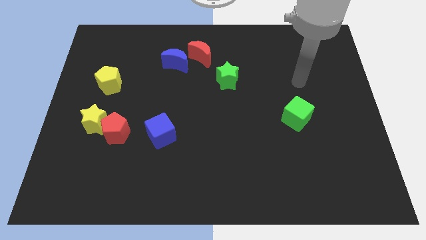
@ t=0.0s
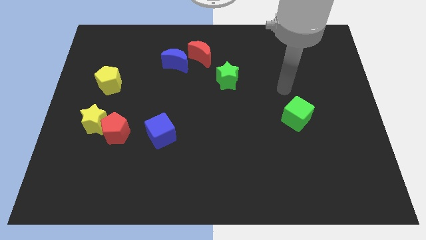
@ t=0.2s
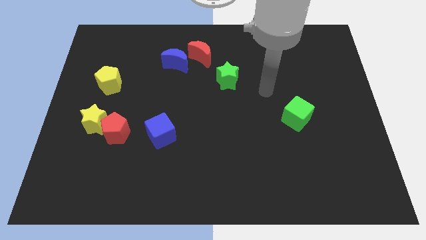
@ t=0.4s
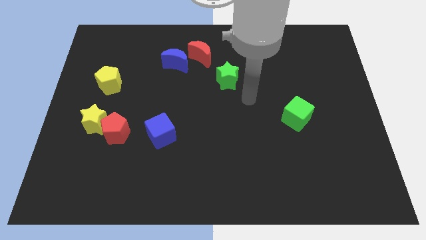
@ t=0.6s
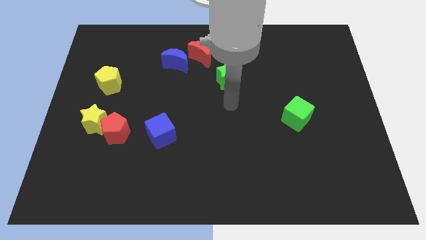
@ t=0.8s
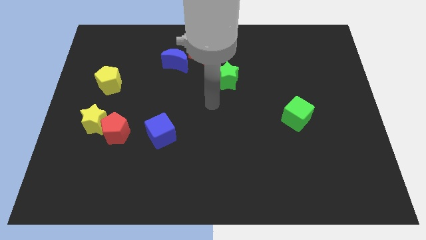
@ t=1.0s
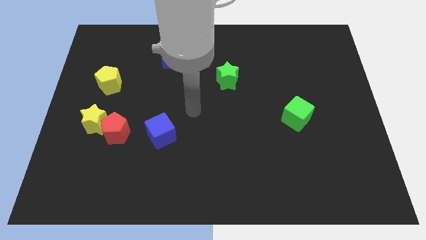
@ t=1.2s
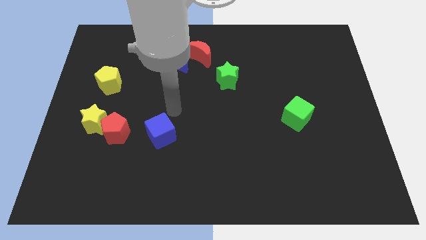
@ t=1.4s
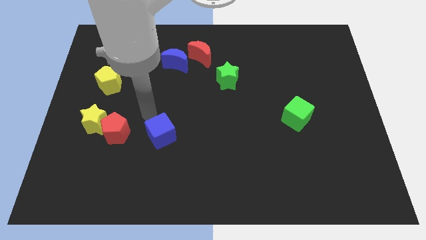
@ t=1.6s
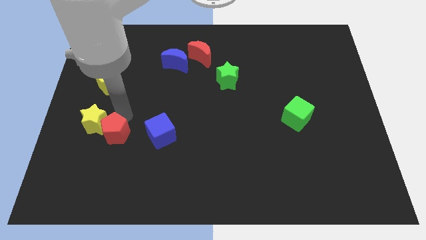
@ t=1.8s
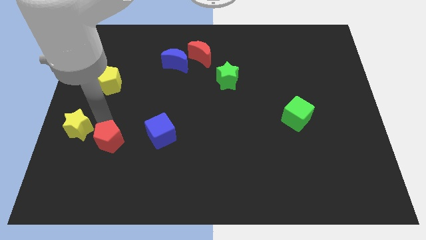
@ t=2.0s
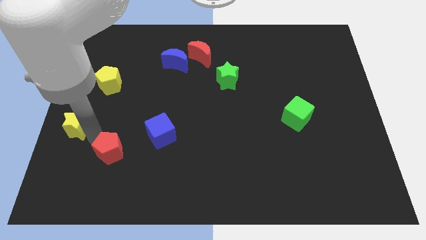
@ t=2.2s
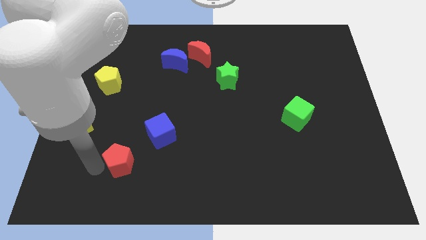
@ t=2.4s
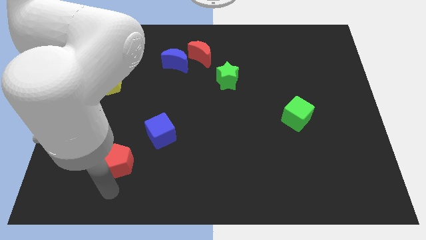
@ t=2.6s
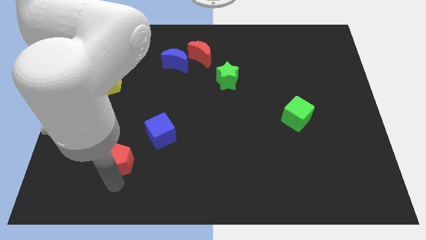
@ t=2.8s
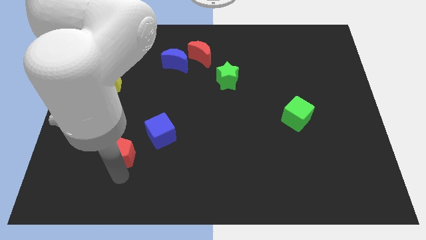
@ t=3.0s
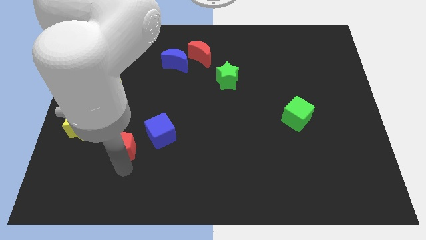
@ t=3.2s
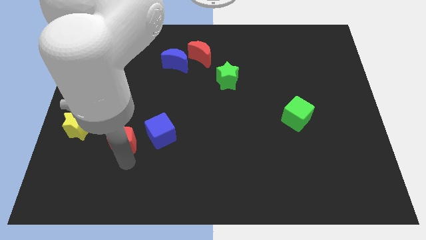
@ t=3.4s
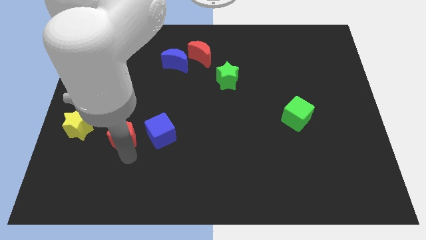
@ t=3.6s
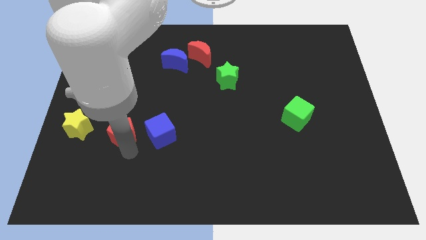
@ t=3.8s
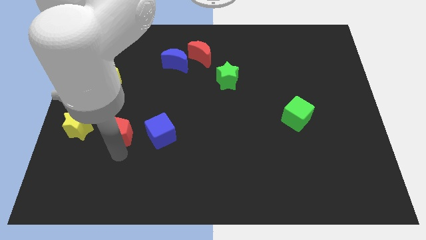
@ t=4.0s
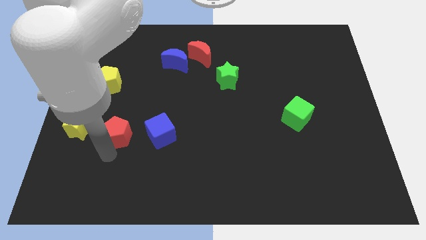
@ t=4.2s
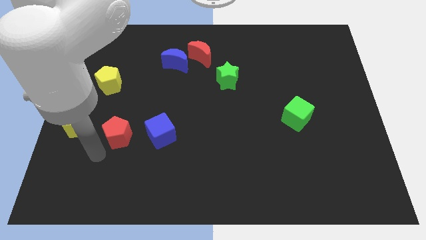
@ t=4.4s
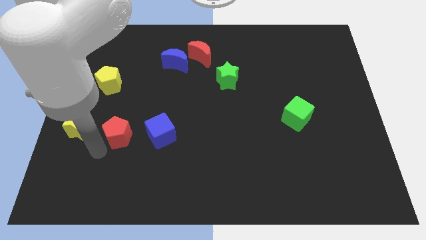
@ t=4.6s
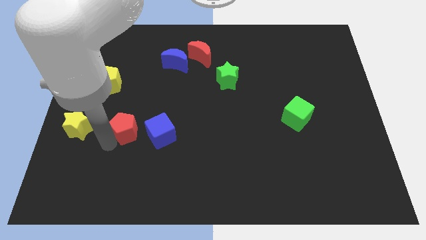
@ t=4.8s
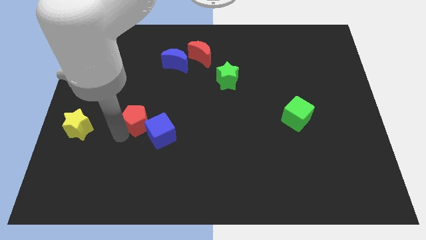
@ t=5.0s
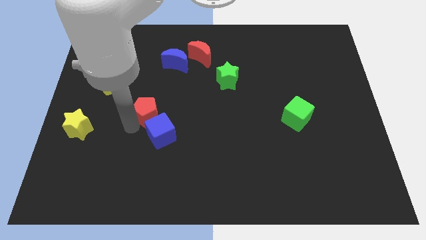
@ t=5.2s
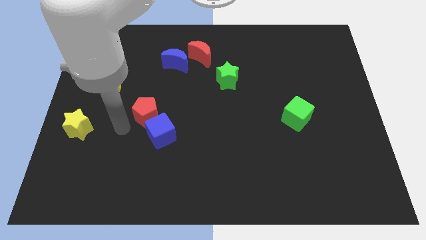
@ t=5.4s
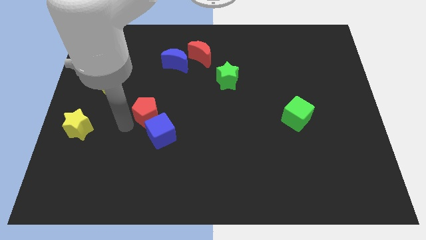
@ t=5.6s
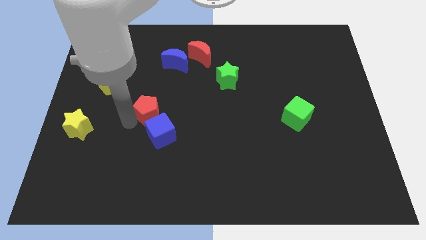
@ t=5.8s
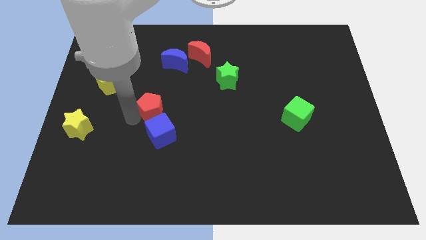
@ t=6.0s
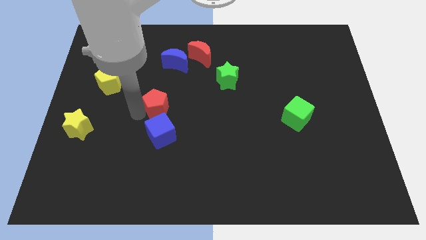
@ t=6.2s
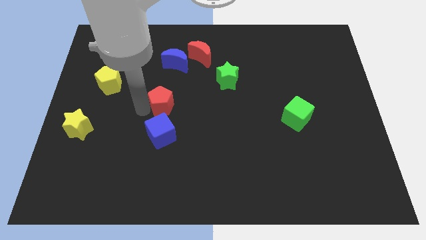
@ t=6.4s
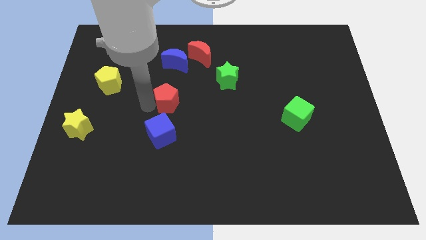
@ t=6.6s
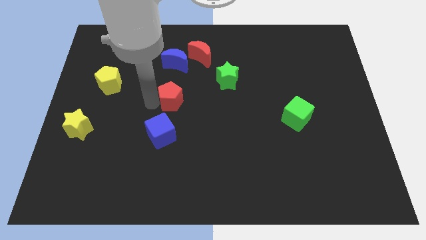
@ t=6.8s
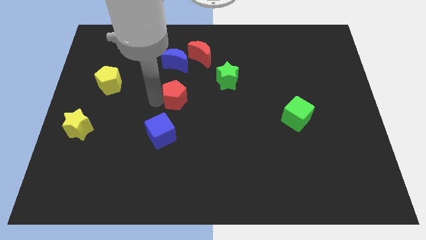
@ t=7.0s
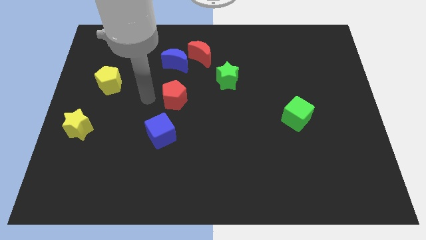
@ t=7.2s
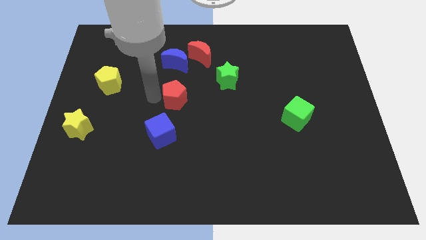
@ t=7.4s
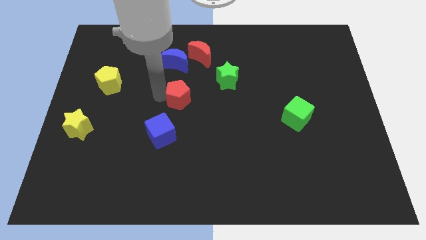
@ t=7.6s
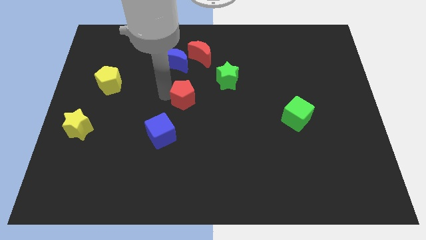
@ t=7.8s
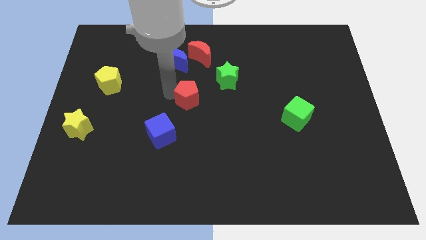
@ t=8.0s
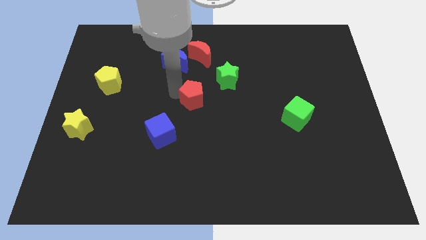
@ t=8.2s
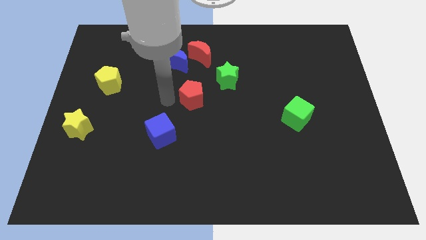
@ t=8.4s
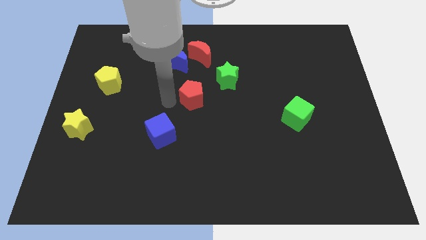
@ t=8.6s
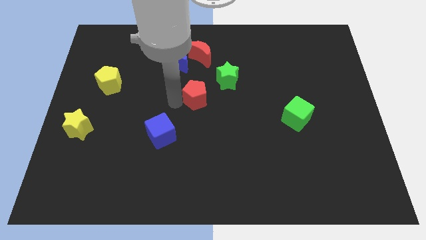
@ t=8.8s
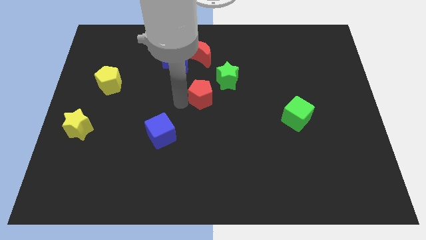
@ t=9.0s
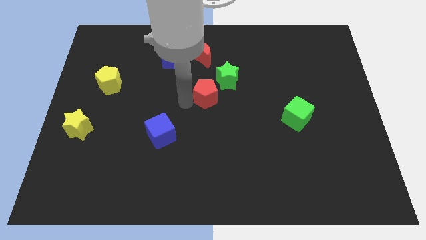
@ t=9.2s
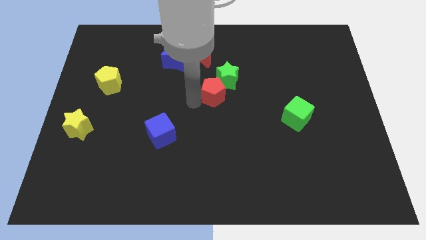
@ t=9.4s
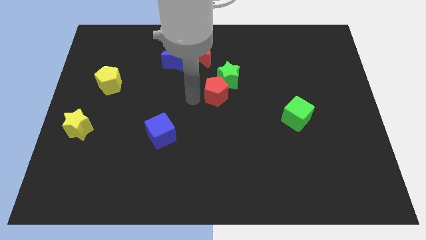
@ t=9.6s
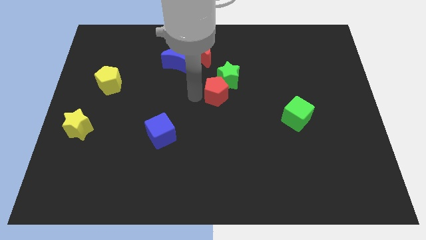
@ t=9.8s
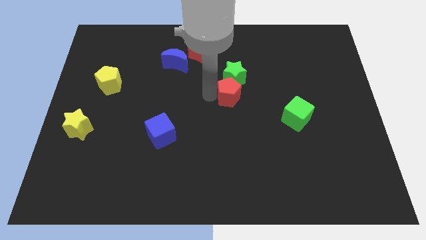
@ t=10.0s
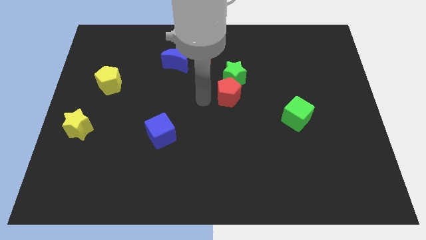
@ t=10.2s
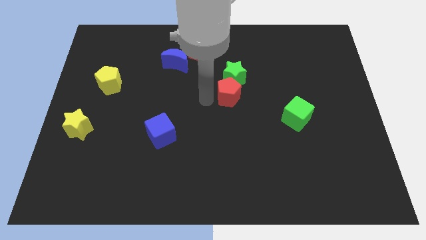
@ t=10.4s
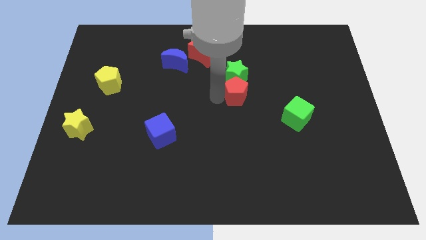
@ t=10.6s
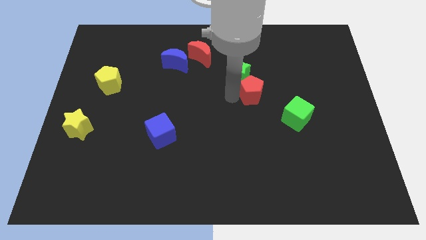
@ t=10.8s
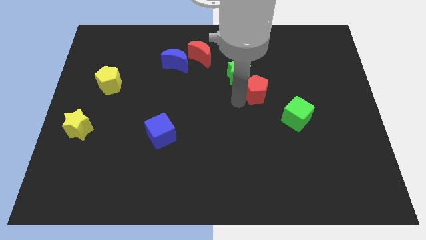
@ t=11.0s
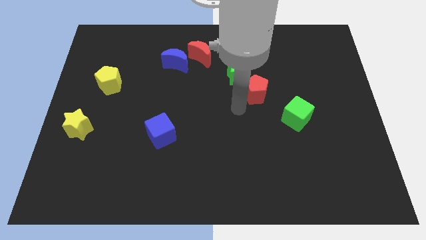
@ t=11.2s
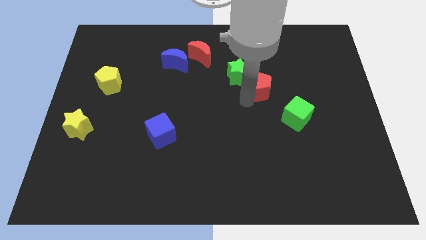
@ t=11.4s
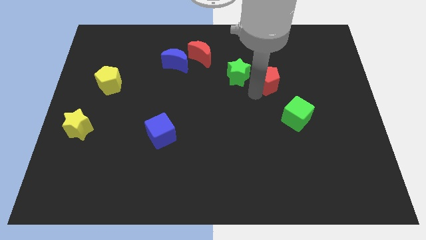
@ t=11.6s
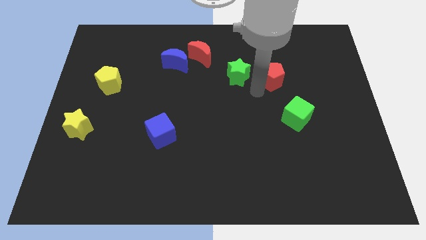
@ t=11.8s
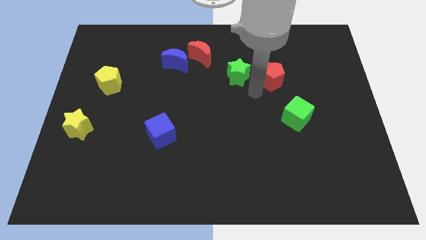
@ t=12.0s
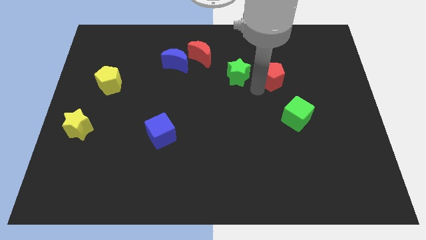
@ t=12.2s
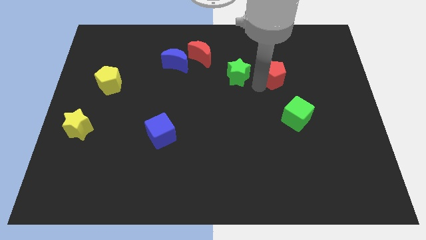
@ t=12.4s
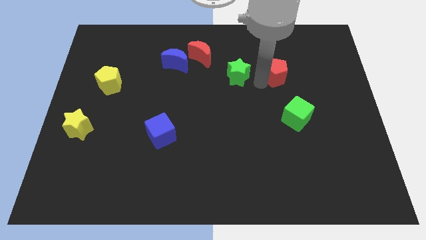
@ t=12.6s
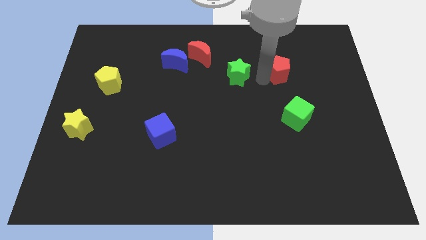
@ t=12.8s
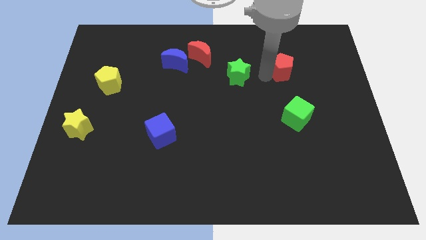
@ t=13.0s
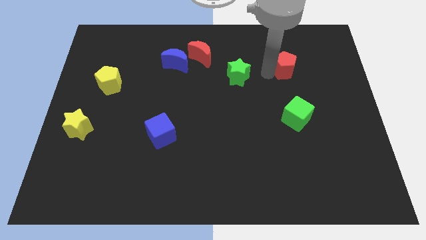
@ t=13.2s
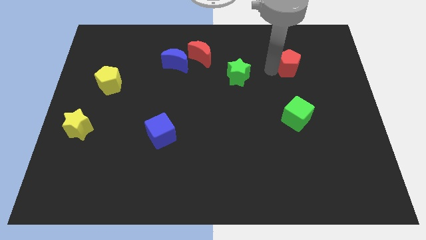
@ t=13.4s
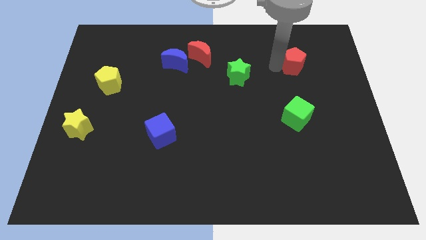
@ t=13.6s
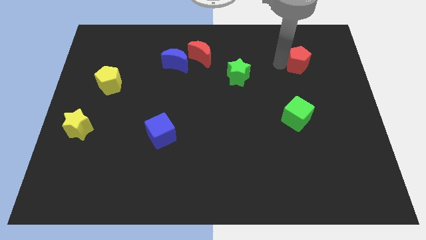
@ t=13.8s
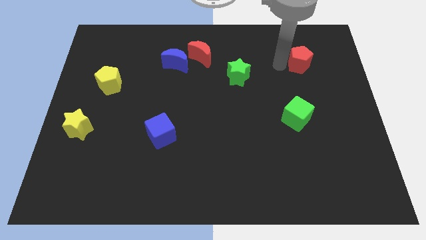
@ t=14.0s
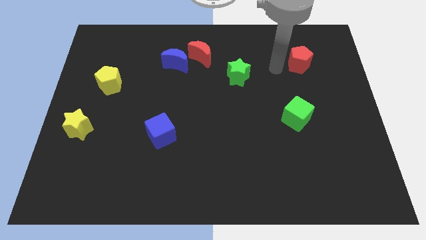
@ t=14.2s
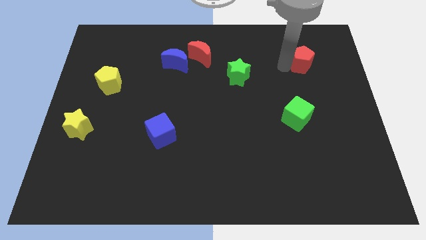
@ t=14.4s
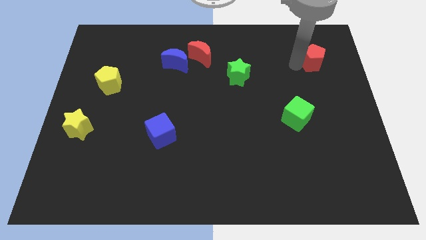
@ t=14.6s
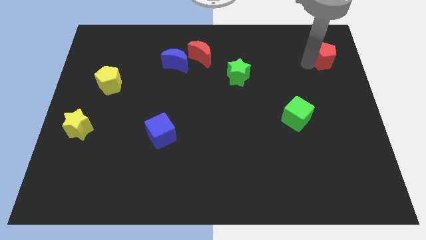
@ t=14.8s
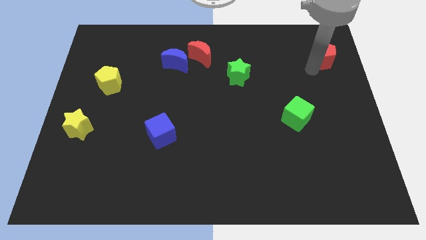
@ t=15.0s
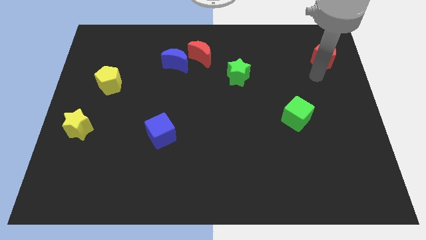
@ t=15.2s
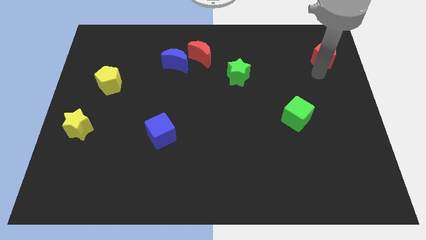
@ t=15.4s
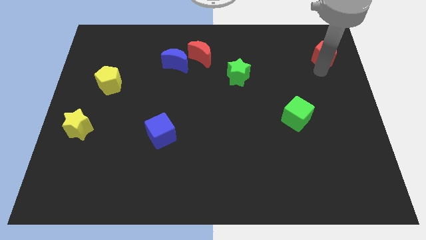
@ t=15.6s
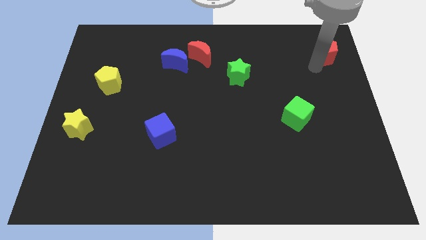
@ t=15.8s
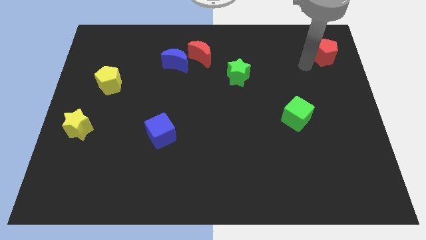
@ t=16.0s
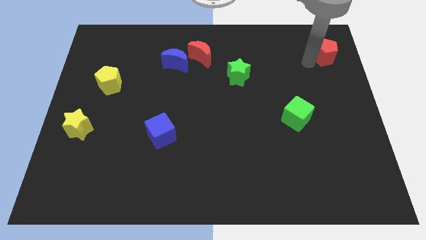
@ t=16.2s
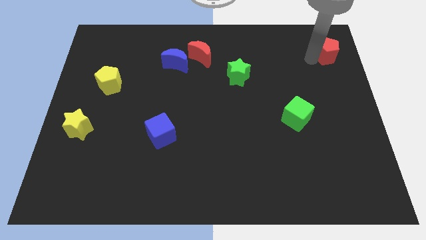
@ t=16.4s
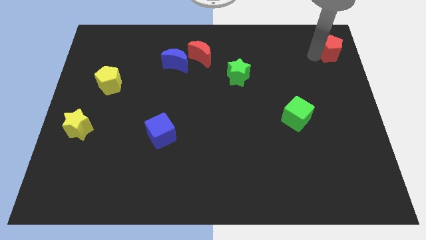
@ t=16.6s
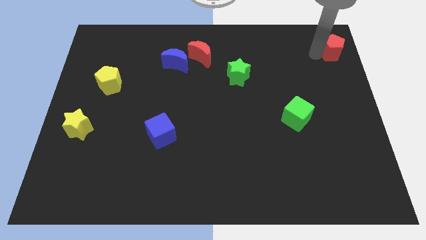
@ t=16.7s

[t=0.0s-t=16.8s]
slide the red pentagon to the top right of the board
